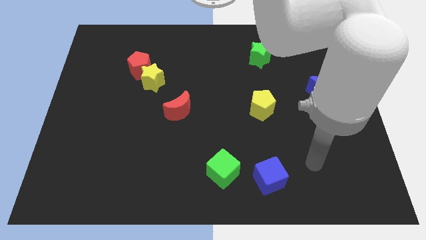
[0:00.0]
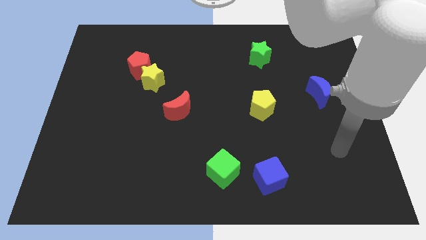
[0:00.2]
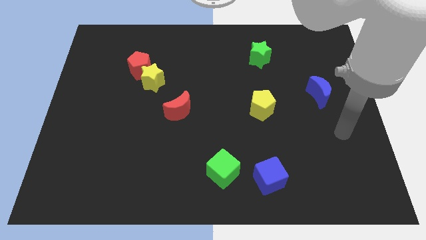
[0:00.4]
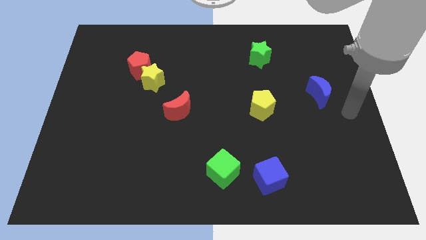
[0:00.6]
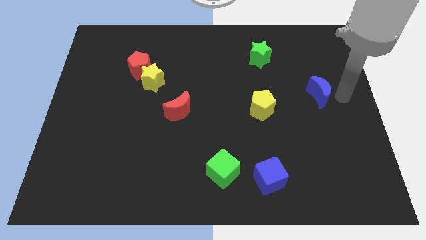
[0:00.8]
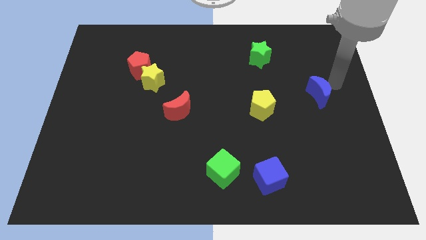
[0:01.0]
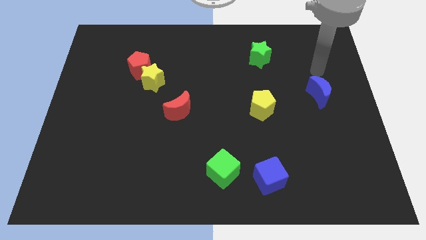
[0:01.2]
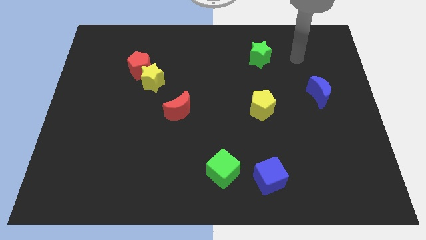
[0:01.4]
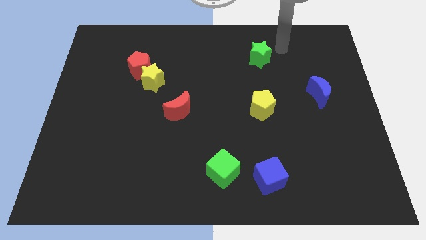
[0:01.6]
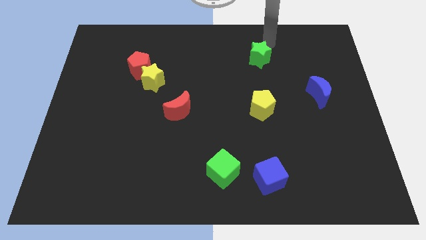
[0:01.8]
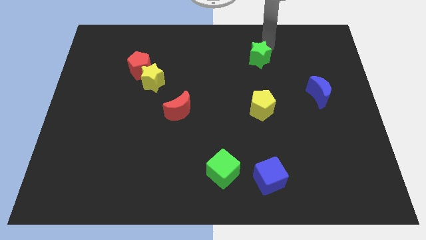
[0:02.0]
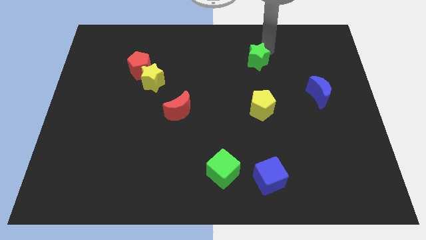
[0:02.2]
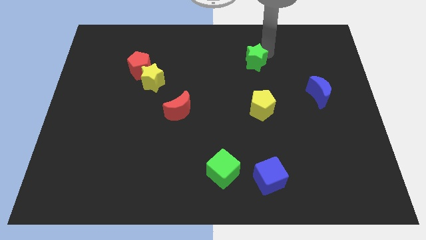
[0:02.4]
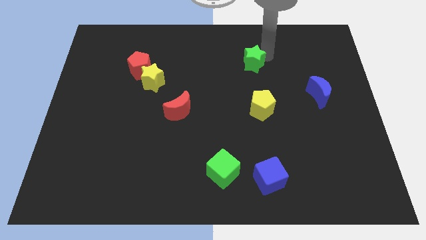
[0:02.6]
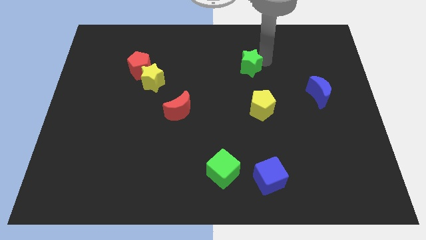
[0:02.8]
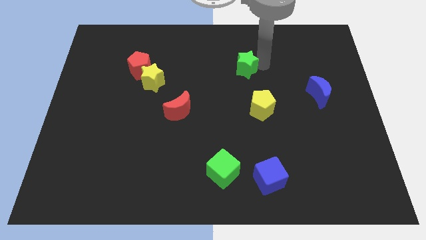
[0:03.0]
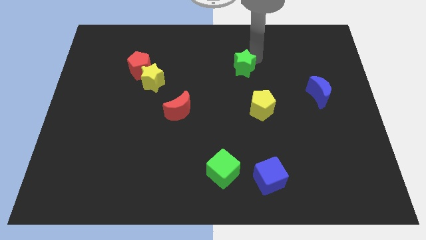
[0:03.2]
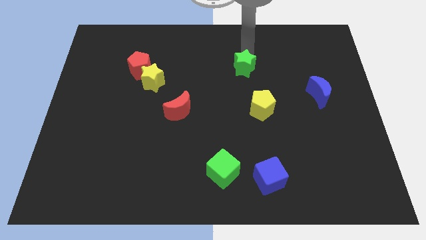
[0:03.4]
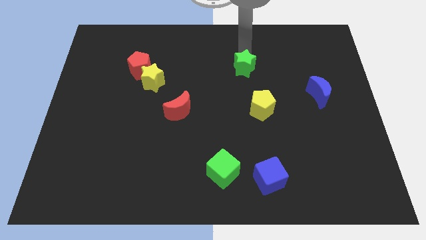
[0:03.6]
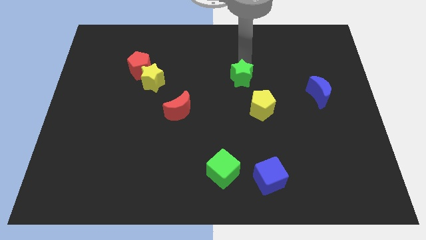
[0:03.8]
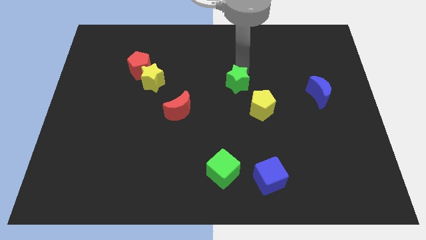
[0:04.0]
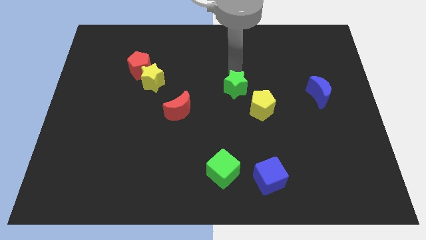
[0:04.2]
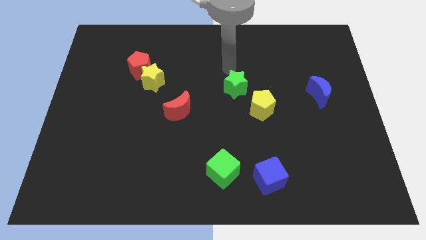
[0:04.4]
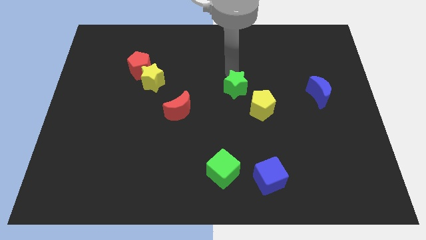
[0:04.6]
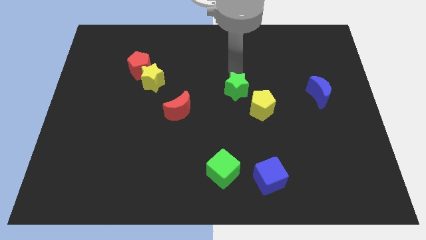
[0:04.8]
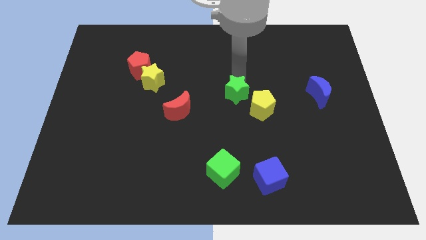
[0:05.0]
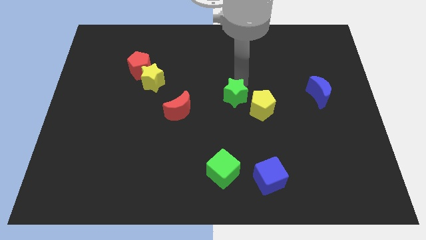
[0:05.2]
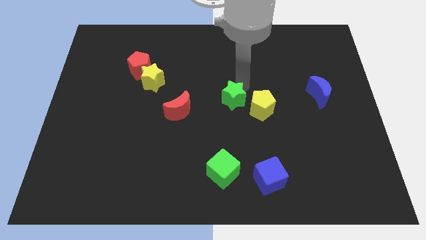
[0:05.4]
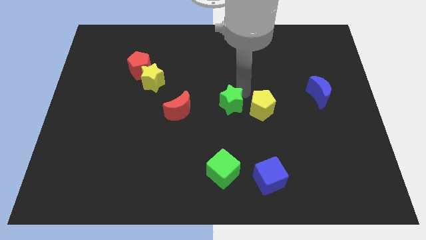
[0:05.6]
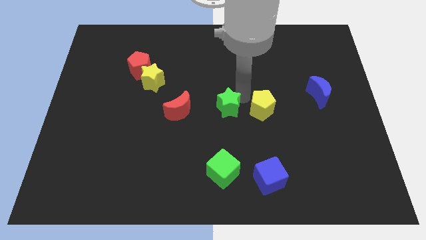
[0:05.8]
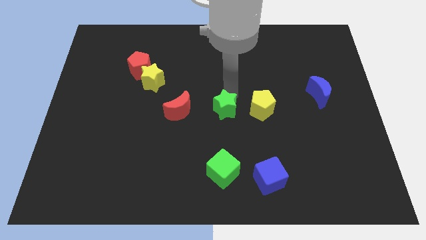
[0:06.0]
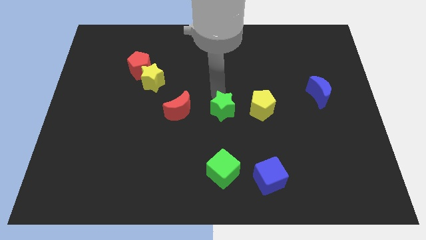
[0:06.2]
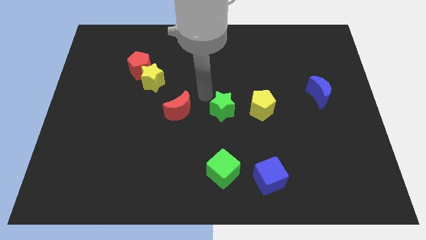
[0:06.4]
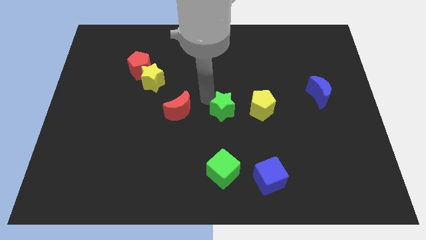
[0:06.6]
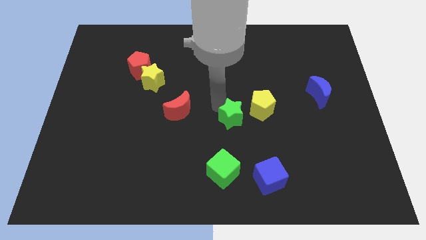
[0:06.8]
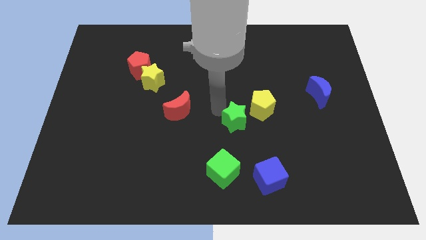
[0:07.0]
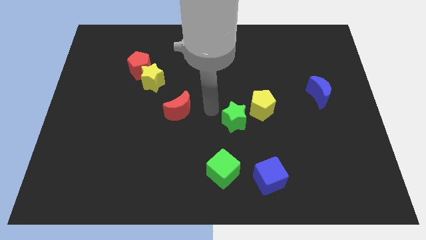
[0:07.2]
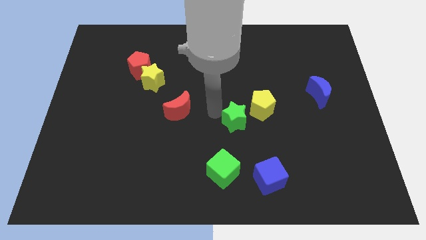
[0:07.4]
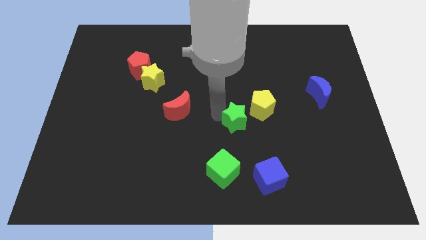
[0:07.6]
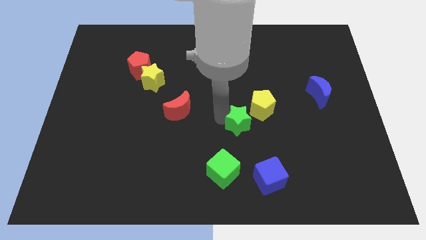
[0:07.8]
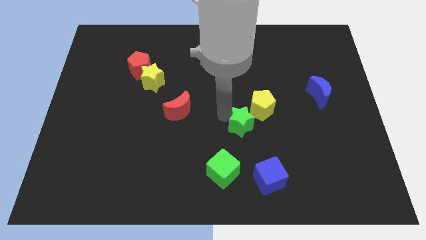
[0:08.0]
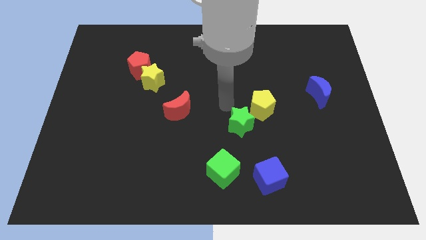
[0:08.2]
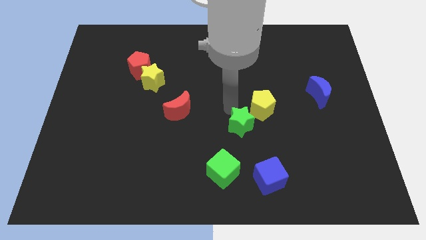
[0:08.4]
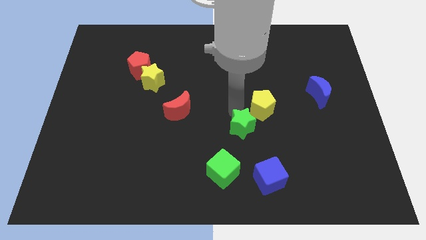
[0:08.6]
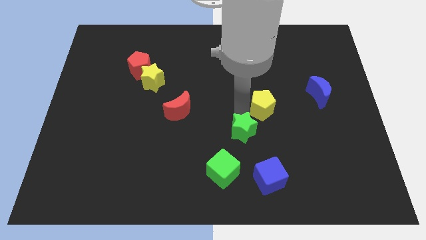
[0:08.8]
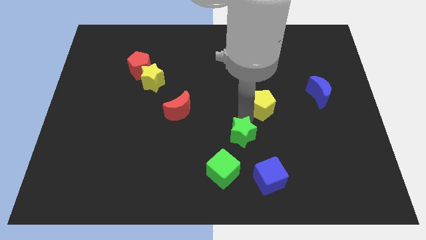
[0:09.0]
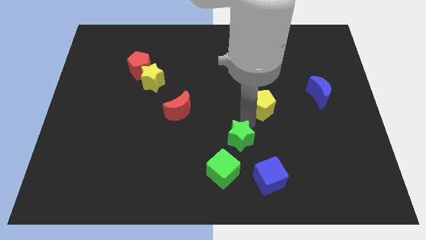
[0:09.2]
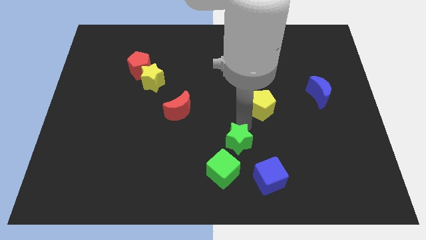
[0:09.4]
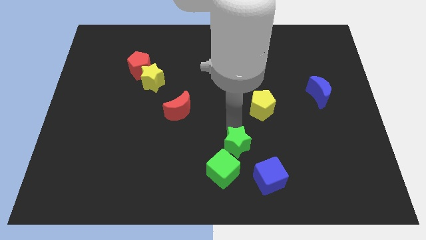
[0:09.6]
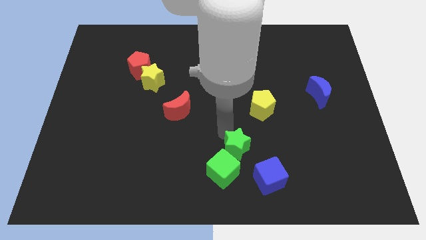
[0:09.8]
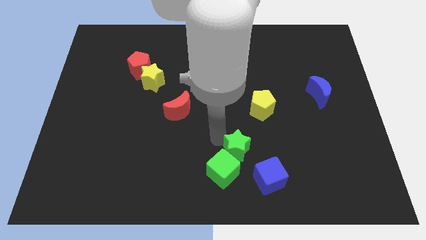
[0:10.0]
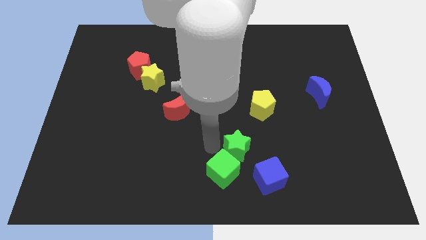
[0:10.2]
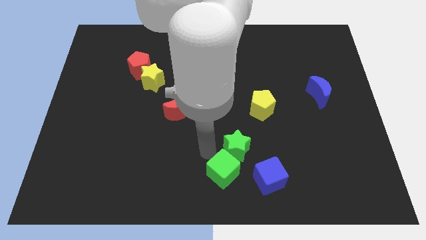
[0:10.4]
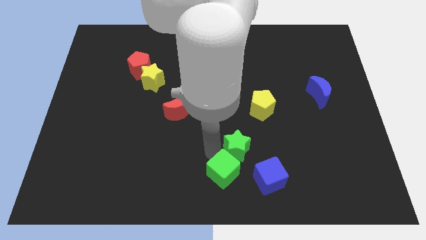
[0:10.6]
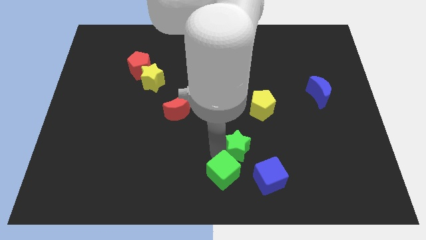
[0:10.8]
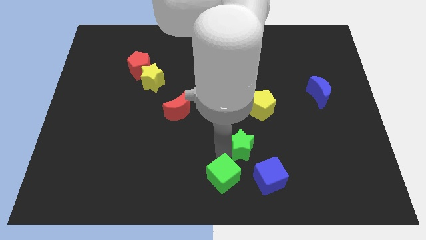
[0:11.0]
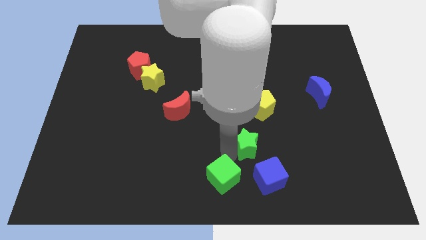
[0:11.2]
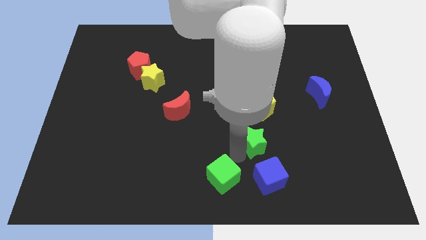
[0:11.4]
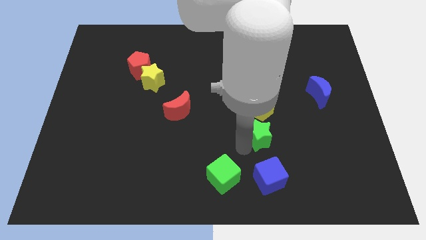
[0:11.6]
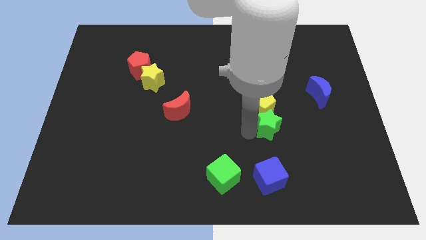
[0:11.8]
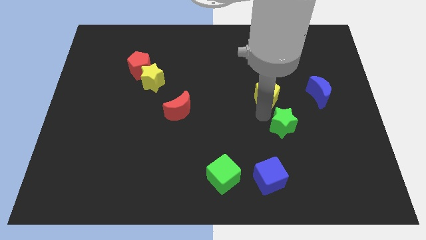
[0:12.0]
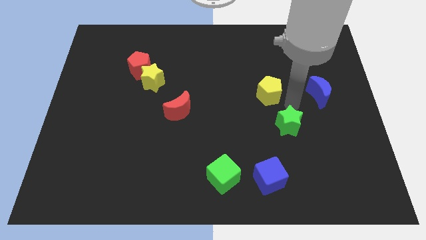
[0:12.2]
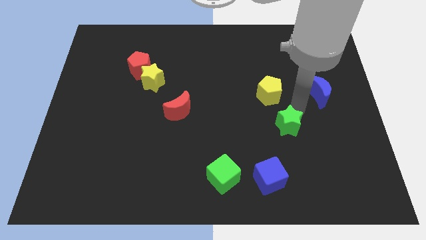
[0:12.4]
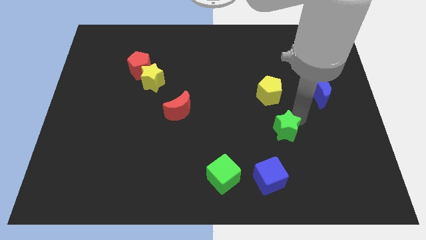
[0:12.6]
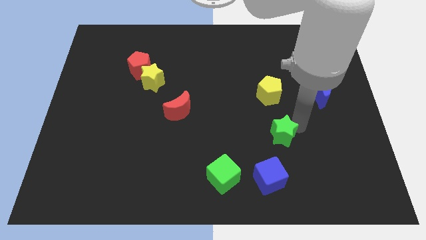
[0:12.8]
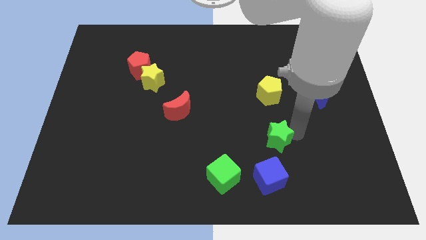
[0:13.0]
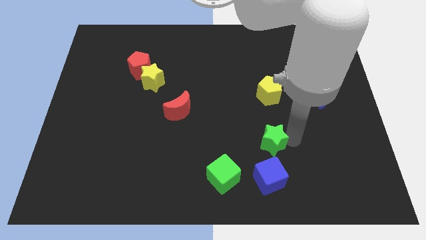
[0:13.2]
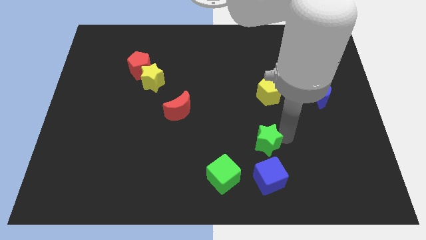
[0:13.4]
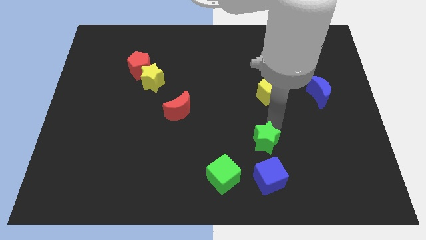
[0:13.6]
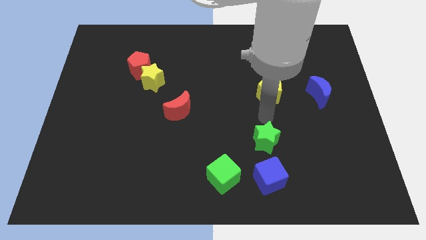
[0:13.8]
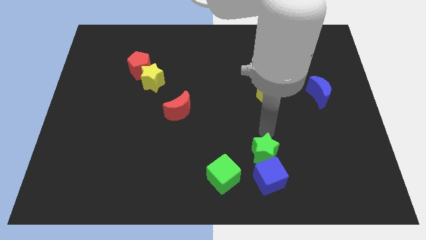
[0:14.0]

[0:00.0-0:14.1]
move the green star close to the blue cube
